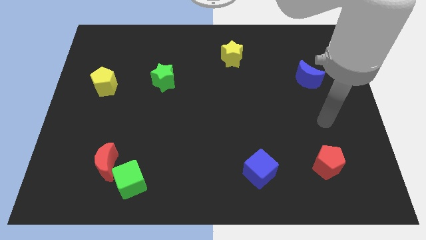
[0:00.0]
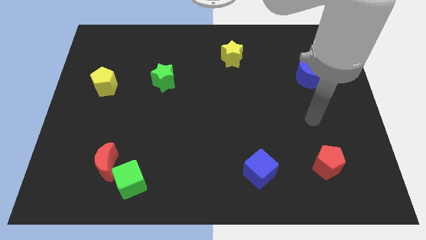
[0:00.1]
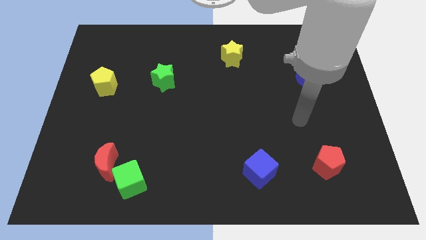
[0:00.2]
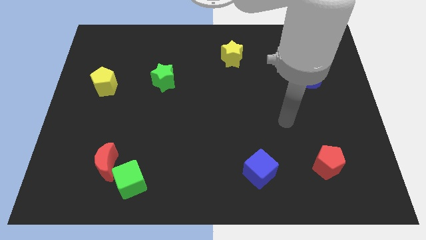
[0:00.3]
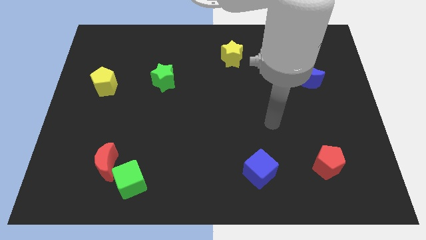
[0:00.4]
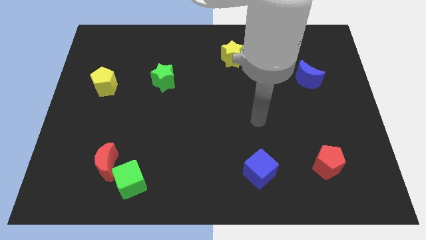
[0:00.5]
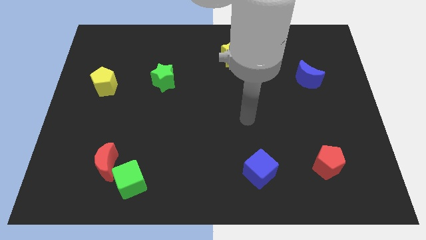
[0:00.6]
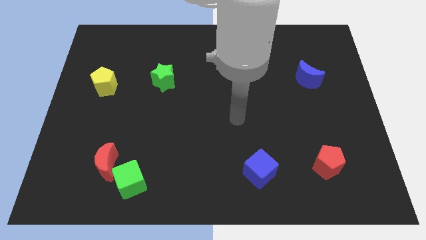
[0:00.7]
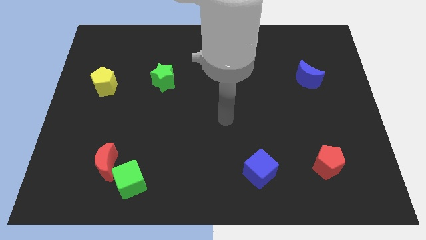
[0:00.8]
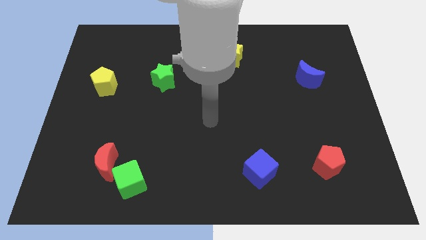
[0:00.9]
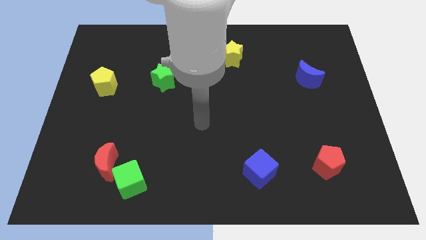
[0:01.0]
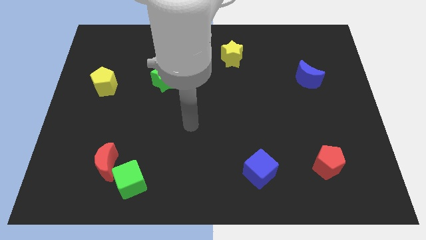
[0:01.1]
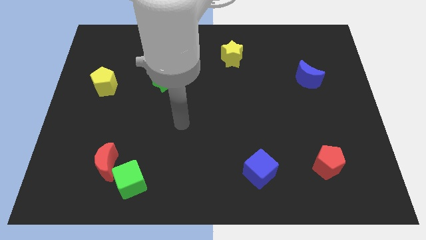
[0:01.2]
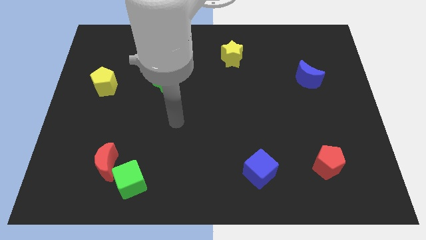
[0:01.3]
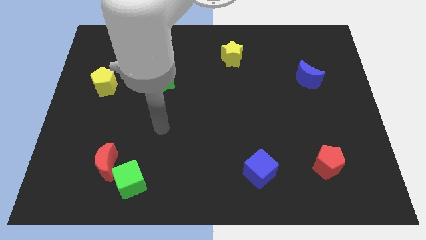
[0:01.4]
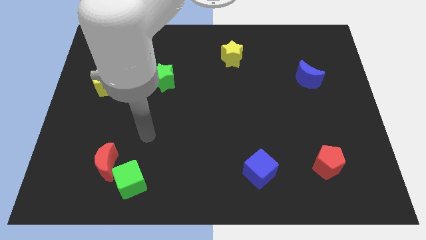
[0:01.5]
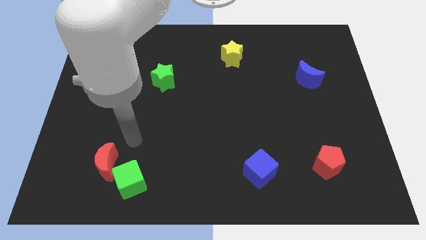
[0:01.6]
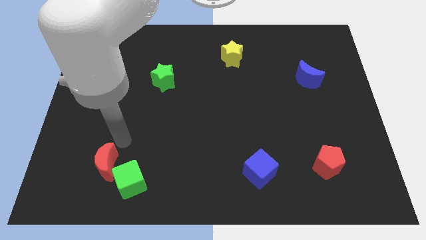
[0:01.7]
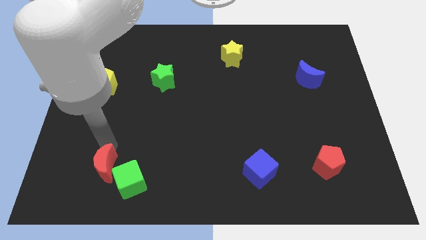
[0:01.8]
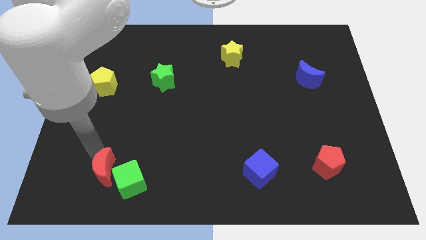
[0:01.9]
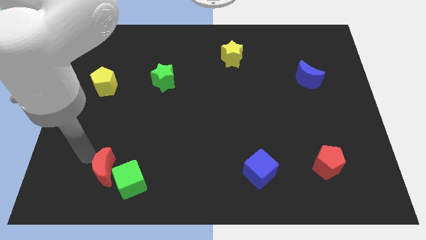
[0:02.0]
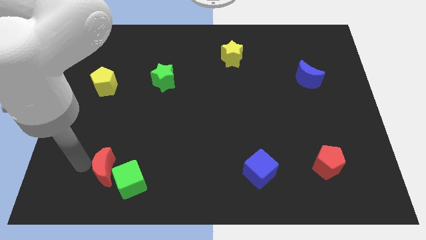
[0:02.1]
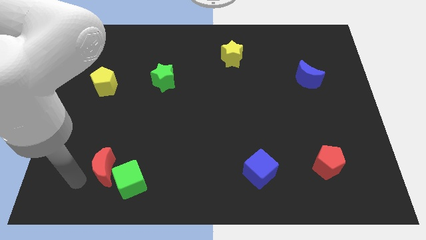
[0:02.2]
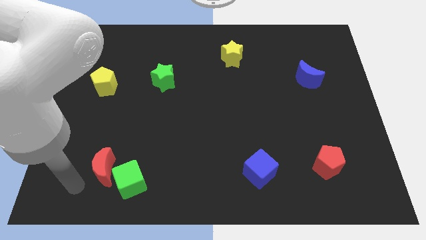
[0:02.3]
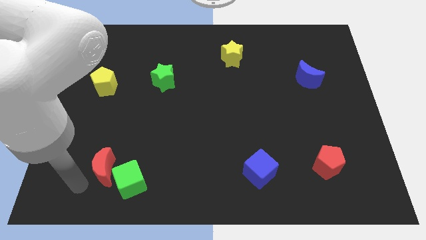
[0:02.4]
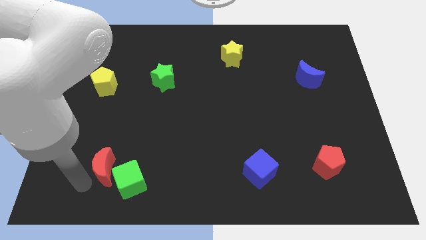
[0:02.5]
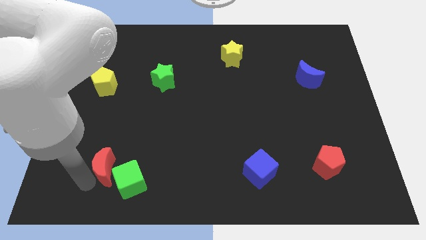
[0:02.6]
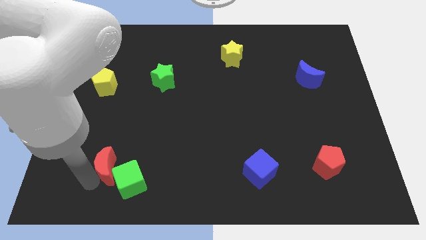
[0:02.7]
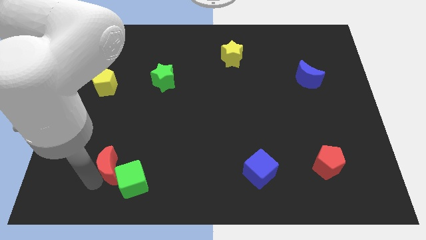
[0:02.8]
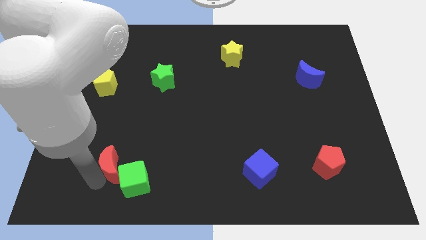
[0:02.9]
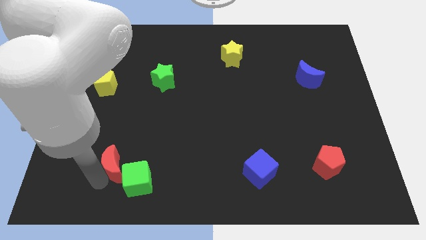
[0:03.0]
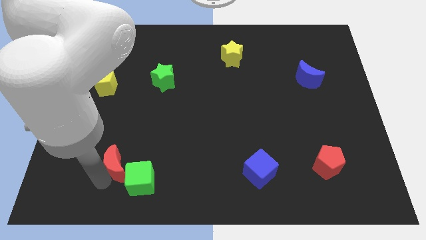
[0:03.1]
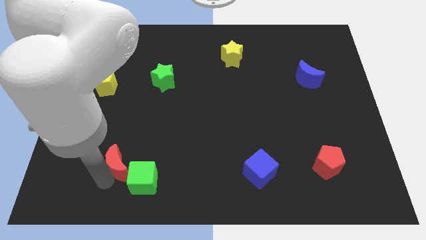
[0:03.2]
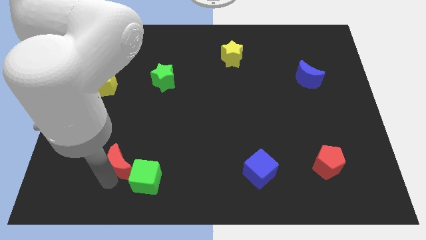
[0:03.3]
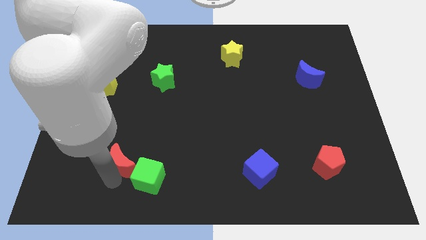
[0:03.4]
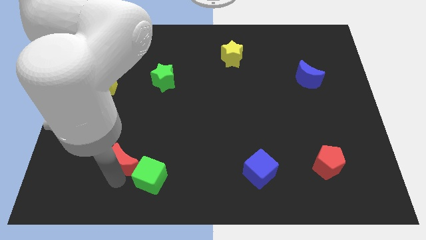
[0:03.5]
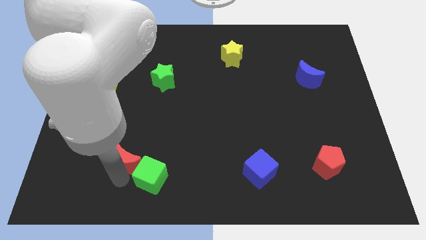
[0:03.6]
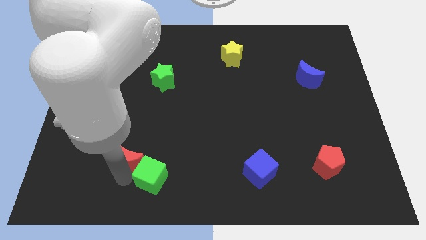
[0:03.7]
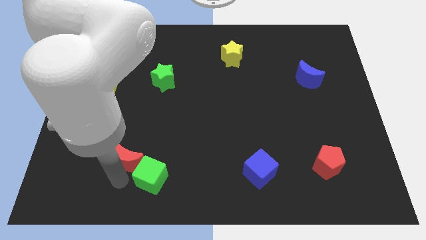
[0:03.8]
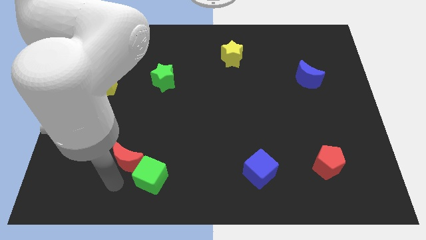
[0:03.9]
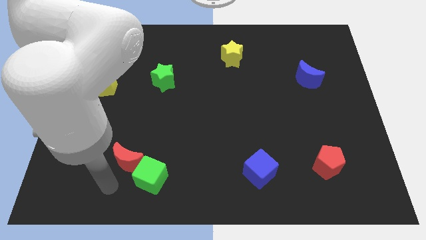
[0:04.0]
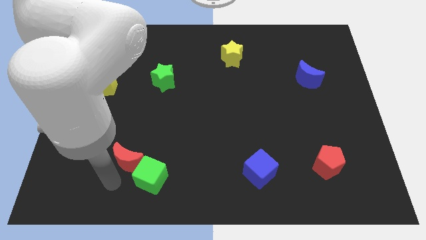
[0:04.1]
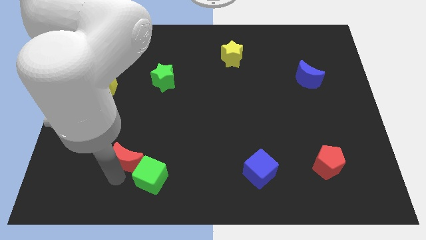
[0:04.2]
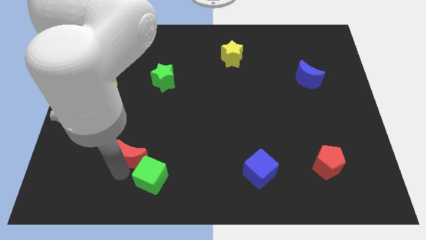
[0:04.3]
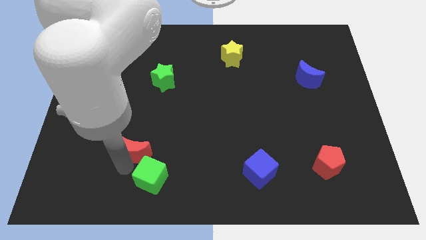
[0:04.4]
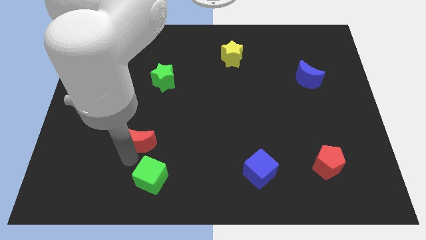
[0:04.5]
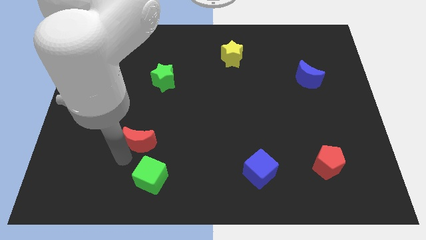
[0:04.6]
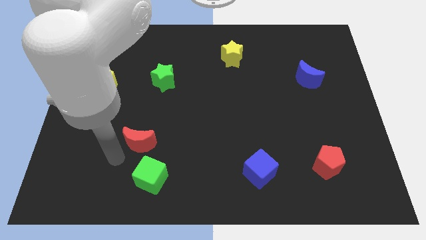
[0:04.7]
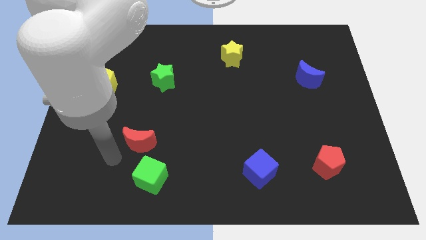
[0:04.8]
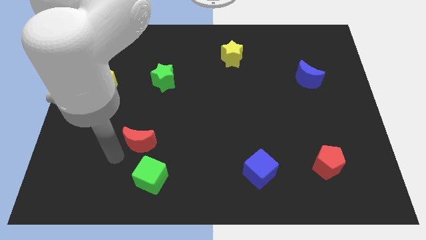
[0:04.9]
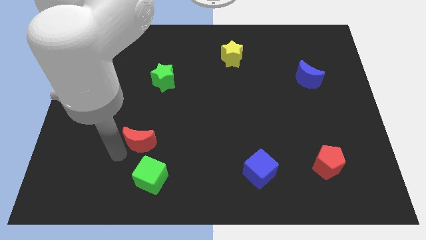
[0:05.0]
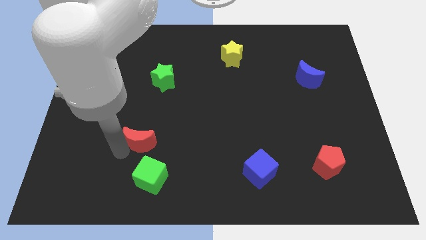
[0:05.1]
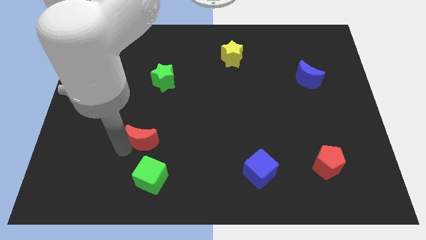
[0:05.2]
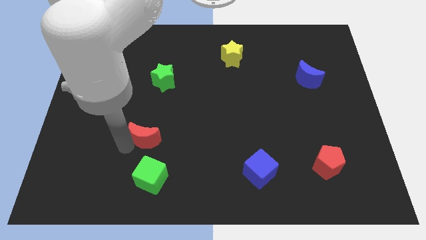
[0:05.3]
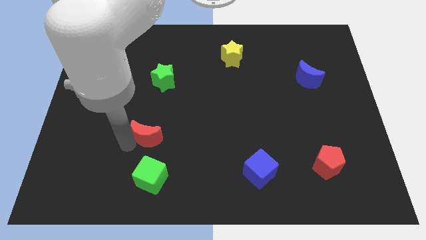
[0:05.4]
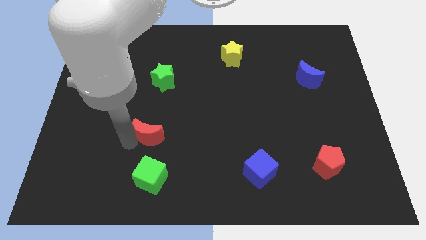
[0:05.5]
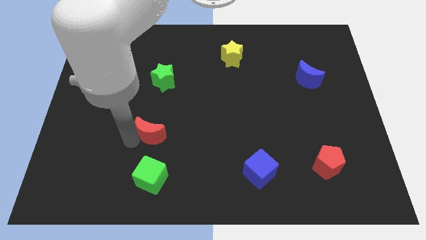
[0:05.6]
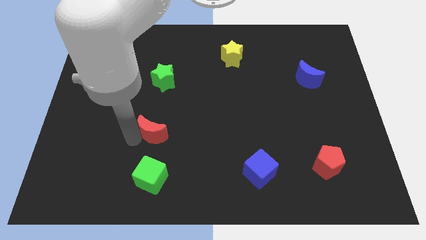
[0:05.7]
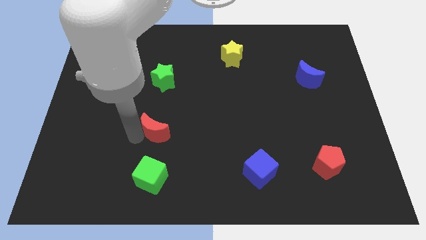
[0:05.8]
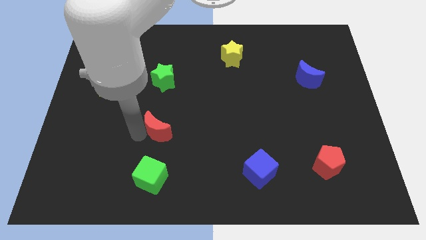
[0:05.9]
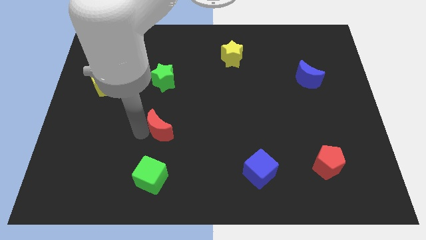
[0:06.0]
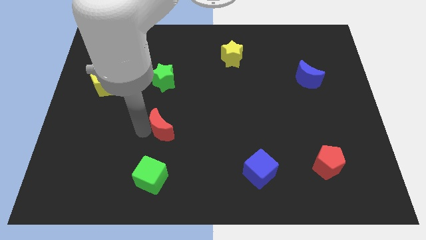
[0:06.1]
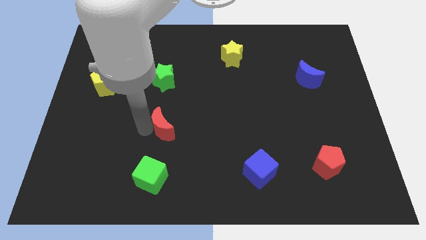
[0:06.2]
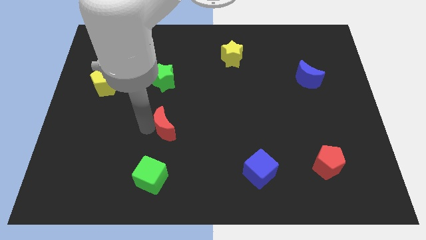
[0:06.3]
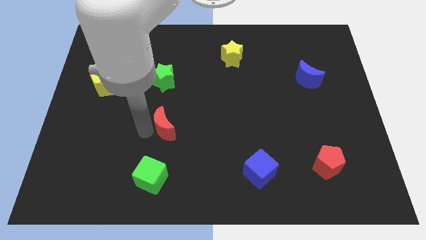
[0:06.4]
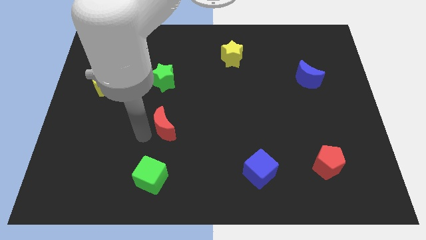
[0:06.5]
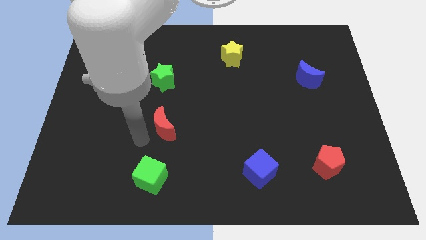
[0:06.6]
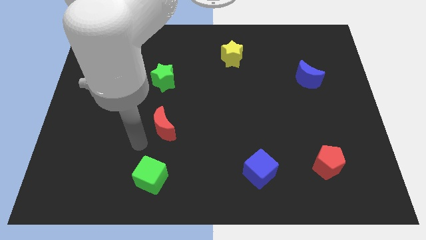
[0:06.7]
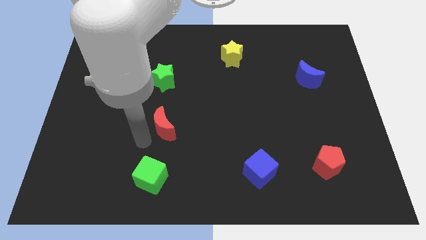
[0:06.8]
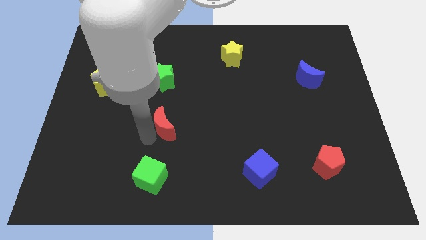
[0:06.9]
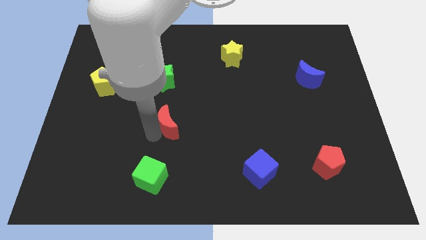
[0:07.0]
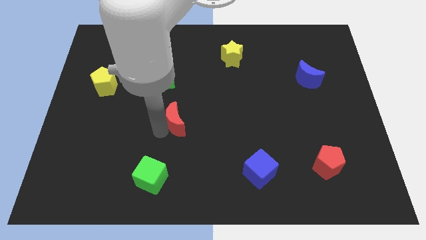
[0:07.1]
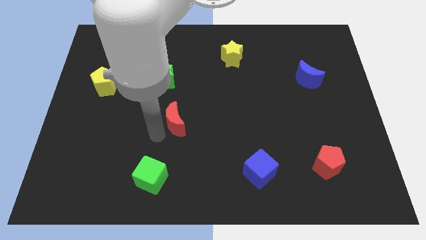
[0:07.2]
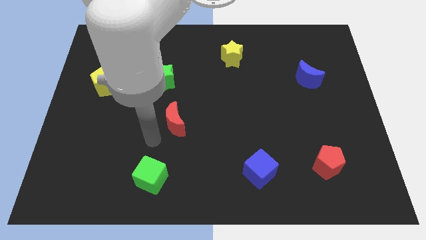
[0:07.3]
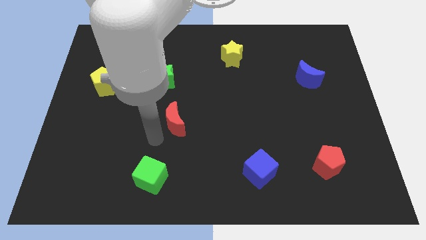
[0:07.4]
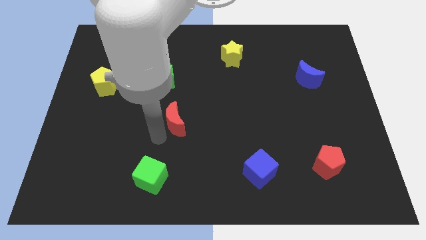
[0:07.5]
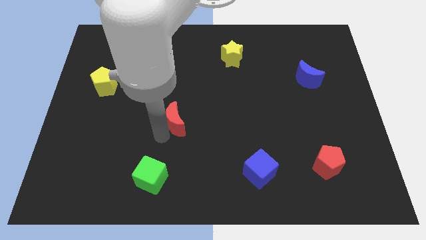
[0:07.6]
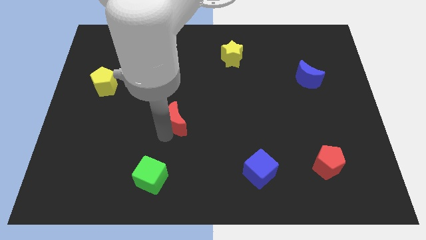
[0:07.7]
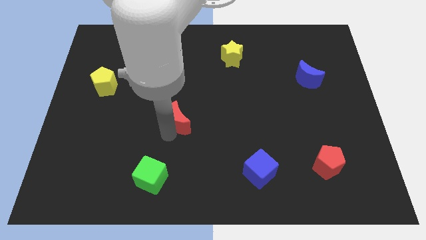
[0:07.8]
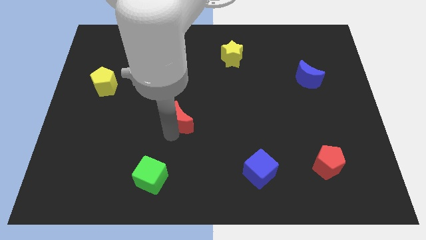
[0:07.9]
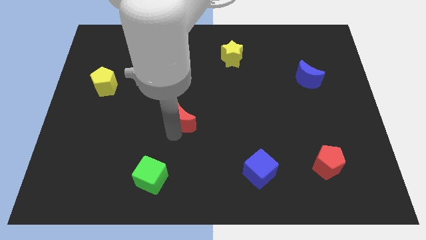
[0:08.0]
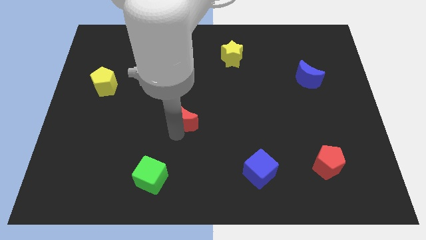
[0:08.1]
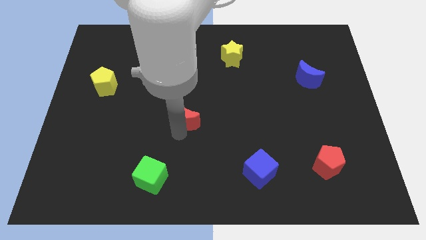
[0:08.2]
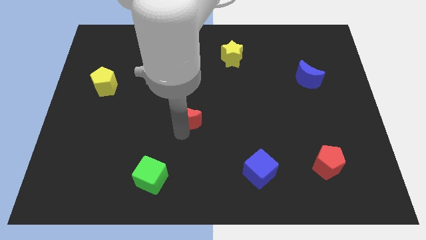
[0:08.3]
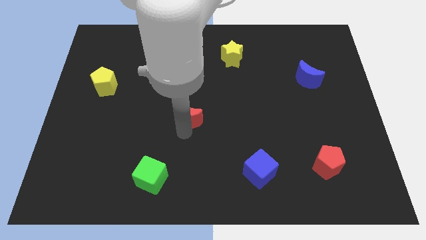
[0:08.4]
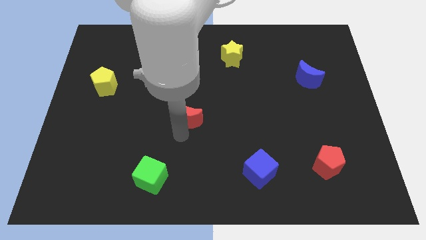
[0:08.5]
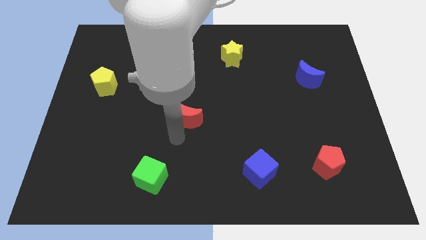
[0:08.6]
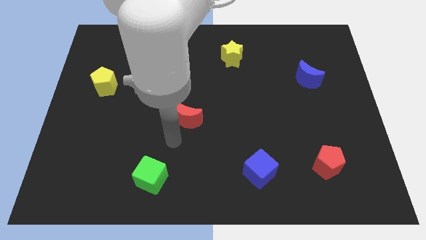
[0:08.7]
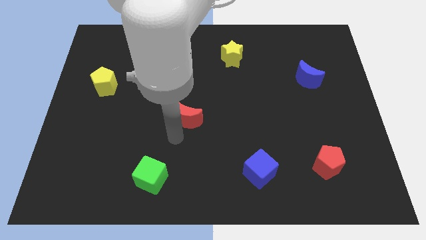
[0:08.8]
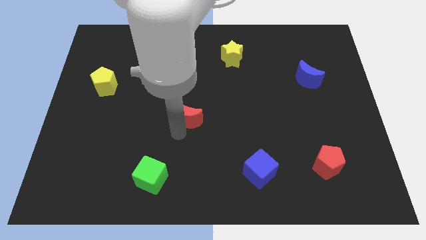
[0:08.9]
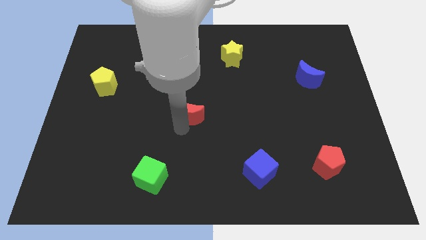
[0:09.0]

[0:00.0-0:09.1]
move the red moon upwards and then to the right
